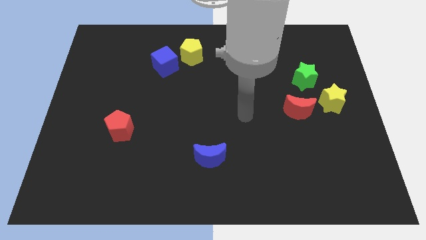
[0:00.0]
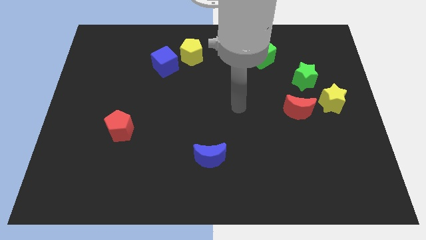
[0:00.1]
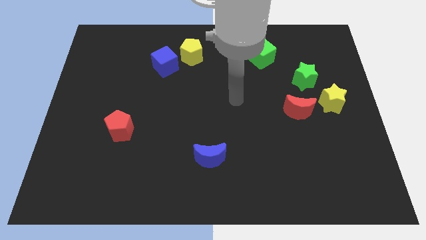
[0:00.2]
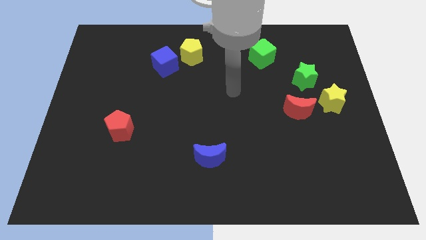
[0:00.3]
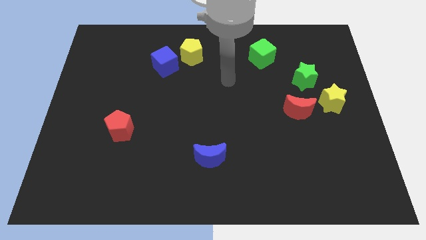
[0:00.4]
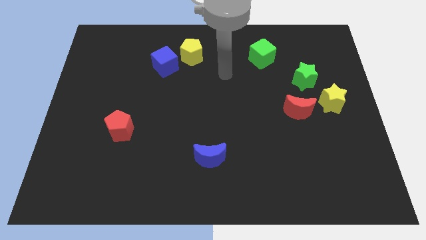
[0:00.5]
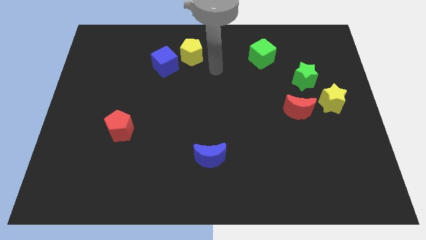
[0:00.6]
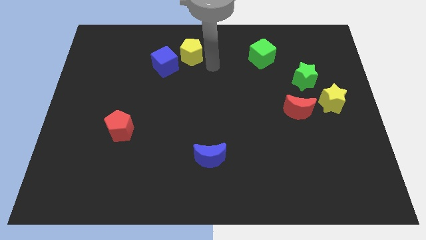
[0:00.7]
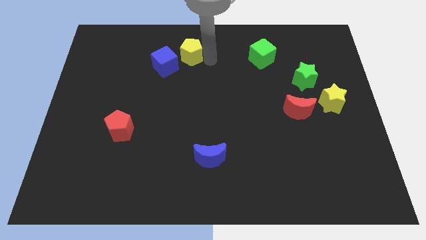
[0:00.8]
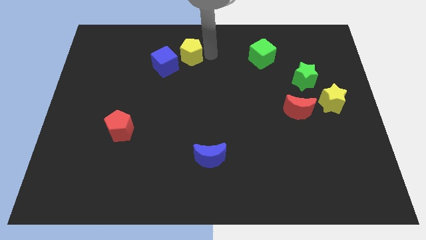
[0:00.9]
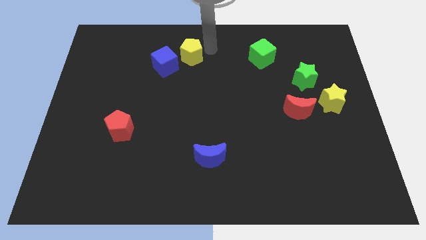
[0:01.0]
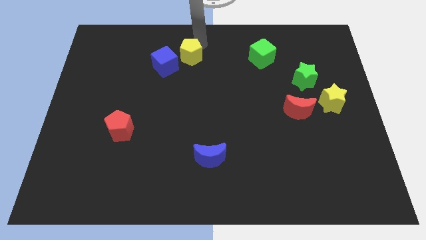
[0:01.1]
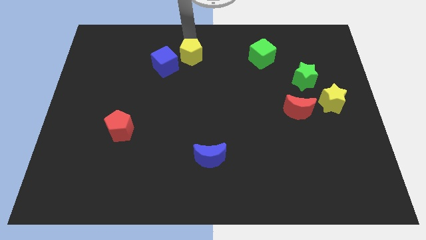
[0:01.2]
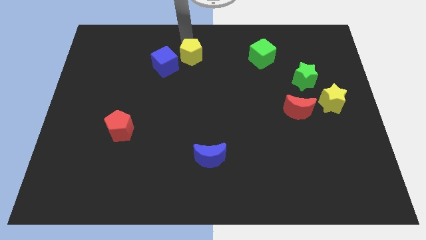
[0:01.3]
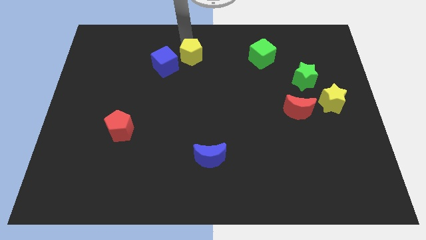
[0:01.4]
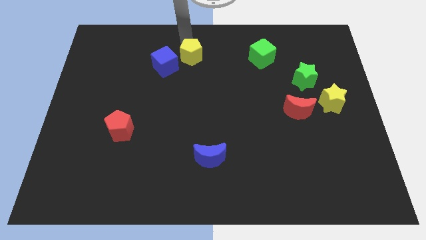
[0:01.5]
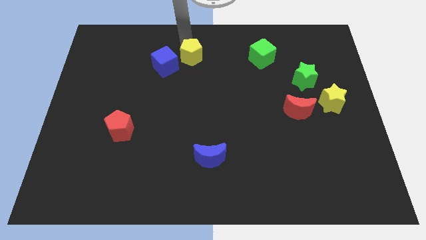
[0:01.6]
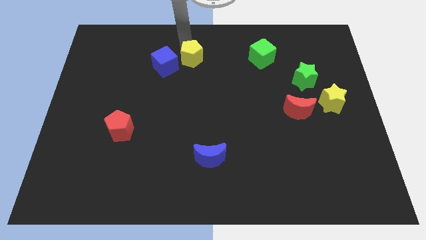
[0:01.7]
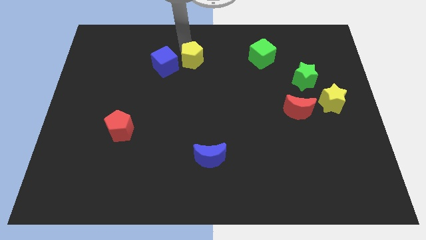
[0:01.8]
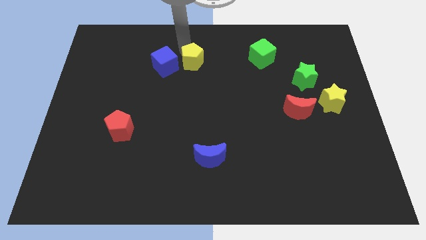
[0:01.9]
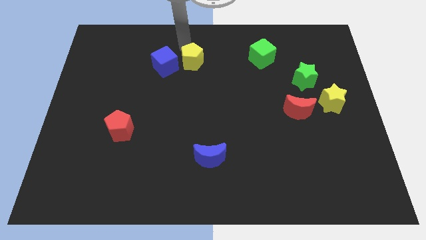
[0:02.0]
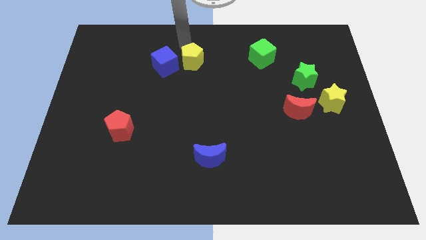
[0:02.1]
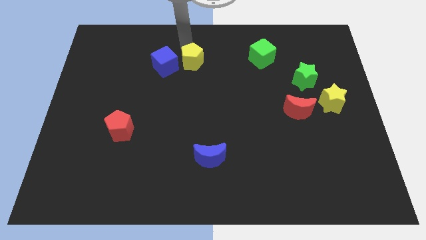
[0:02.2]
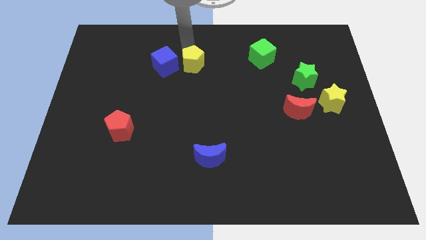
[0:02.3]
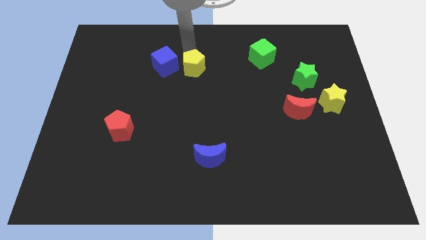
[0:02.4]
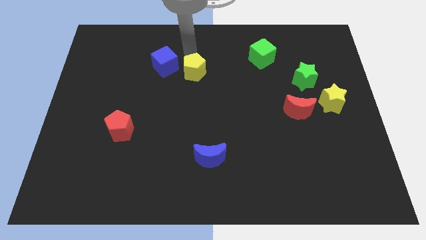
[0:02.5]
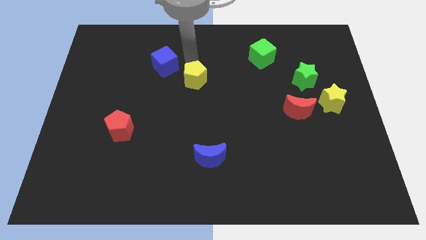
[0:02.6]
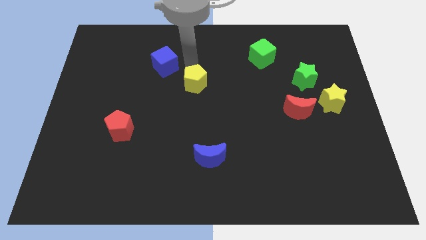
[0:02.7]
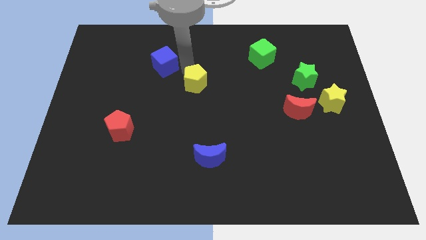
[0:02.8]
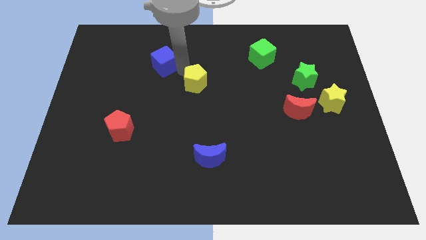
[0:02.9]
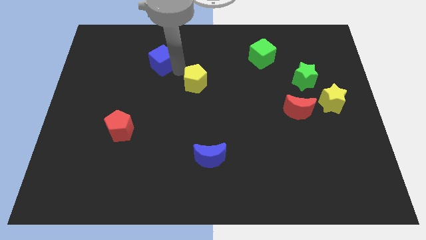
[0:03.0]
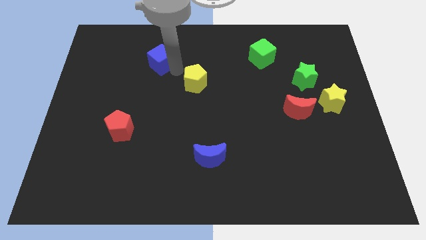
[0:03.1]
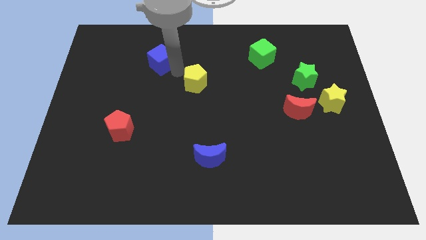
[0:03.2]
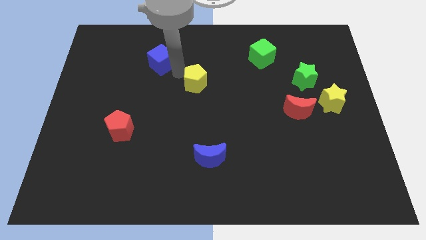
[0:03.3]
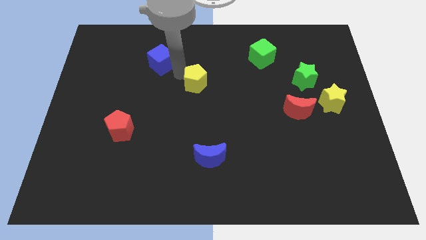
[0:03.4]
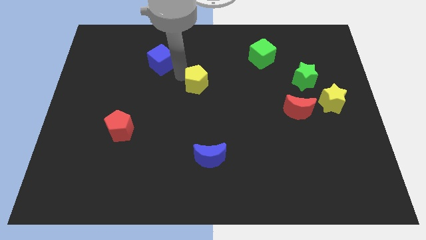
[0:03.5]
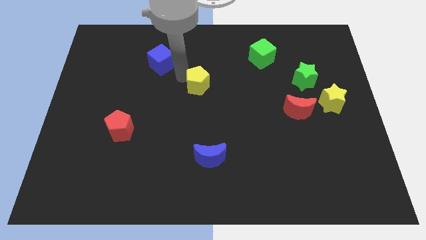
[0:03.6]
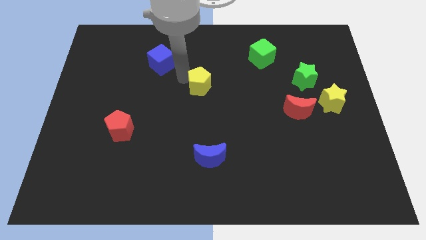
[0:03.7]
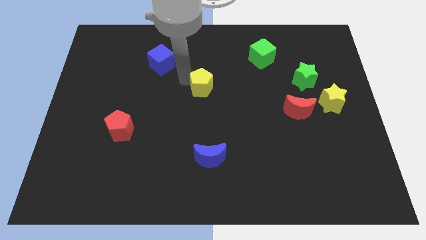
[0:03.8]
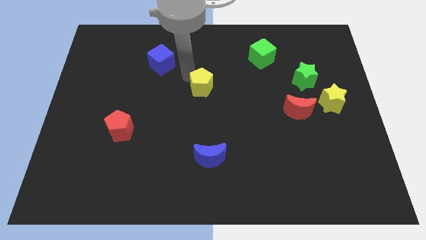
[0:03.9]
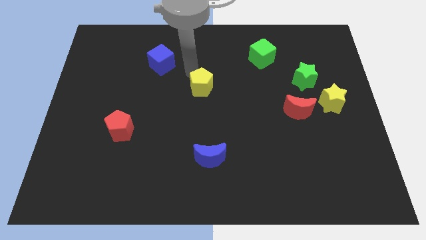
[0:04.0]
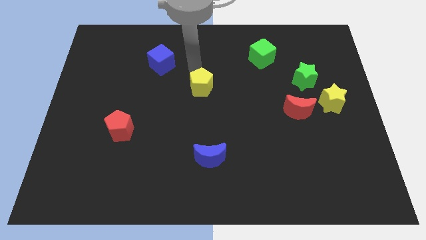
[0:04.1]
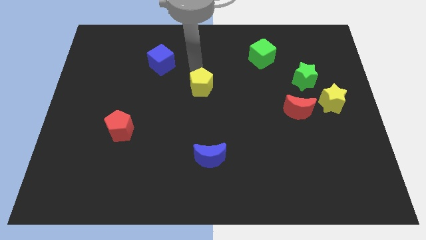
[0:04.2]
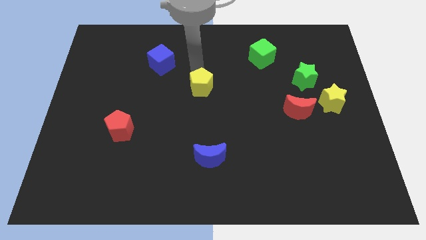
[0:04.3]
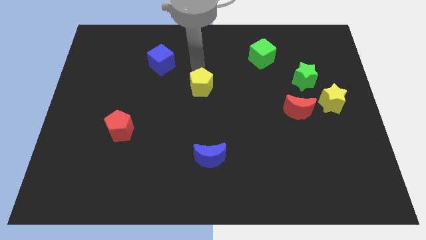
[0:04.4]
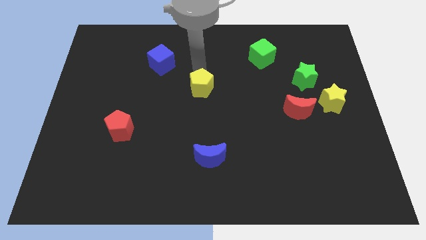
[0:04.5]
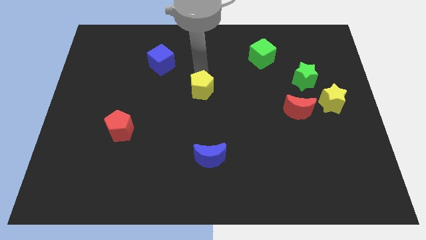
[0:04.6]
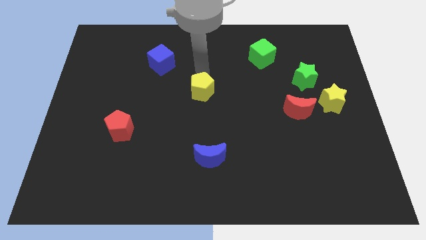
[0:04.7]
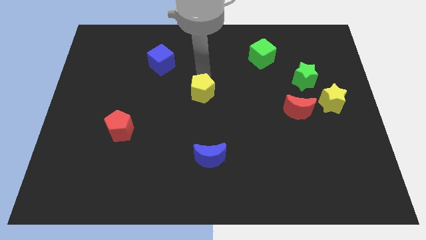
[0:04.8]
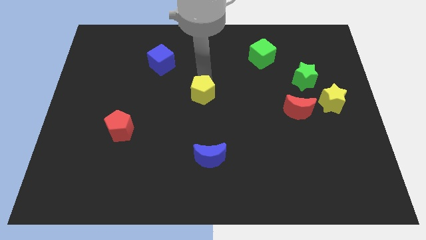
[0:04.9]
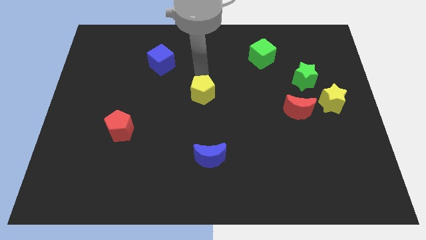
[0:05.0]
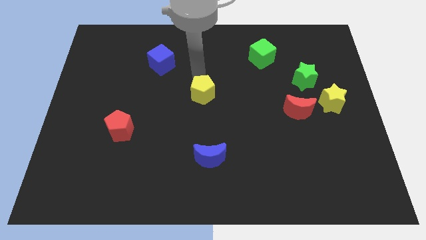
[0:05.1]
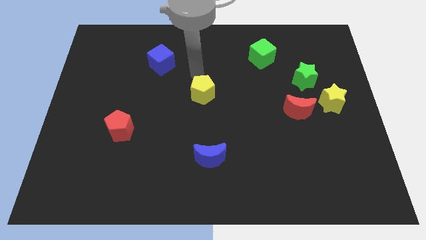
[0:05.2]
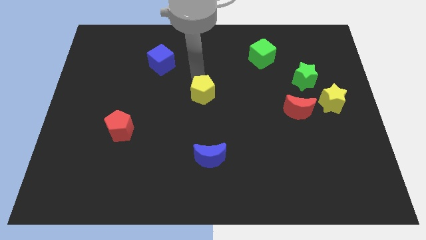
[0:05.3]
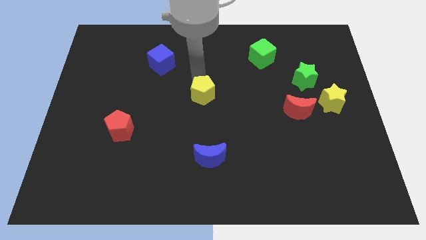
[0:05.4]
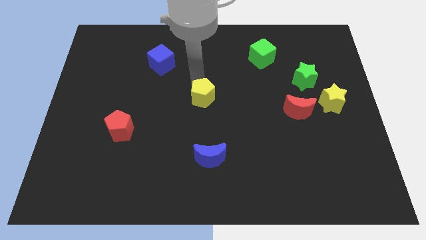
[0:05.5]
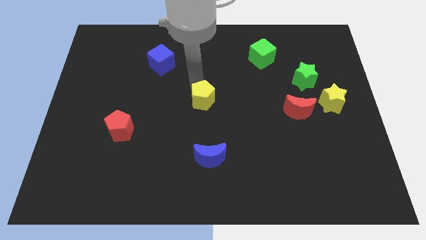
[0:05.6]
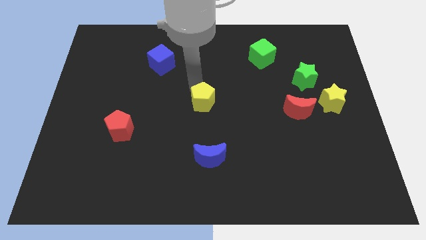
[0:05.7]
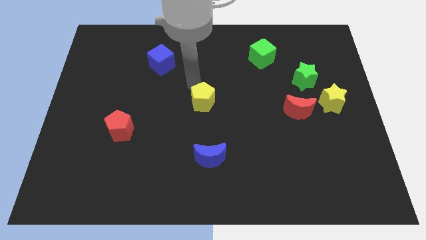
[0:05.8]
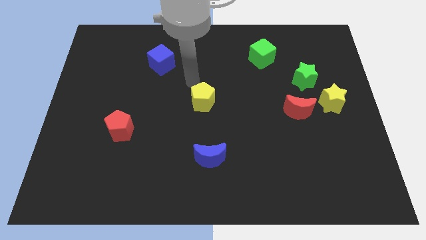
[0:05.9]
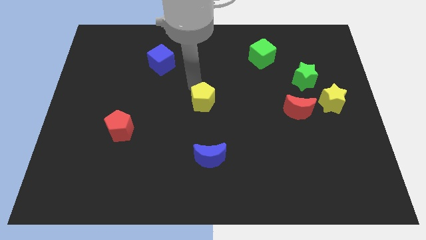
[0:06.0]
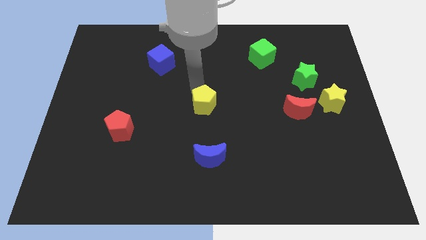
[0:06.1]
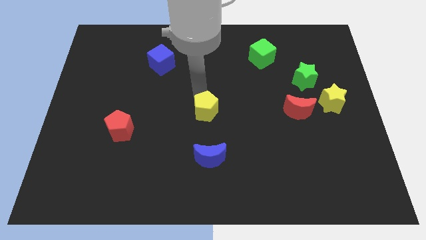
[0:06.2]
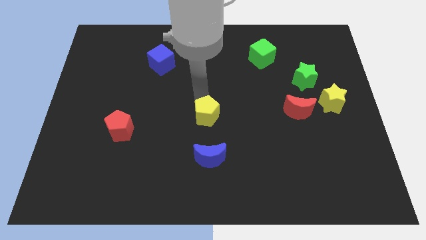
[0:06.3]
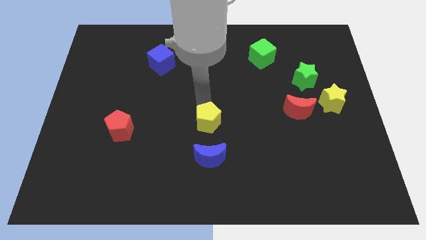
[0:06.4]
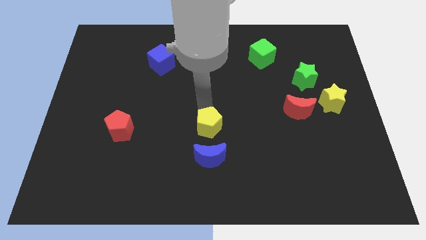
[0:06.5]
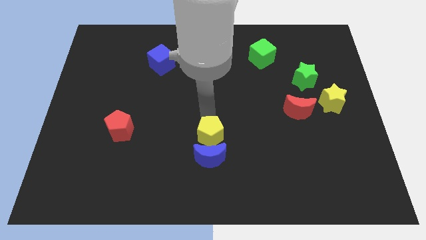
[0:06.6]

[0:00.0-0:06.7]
put the yellow pentagon to the blue moon

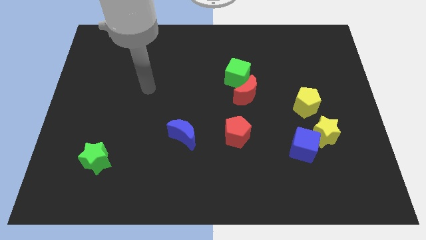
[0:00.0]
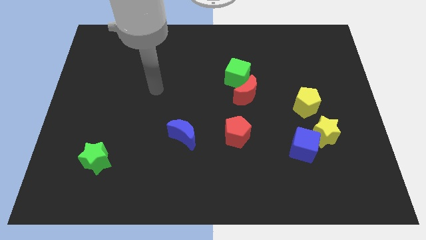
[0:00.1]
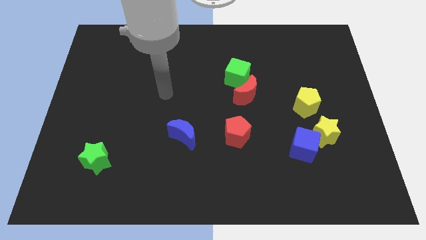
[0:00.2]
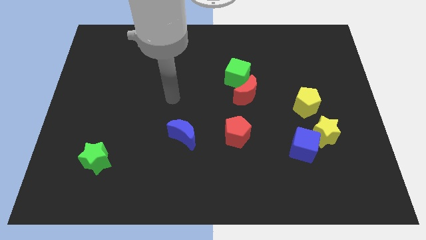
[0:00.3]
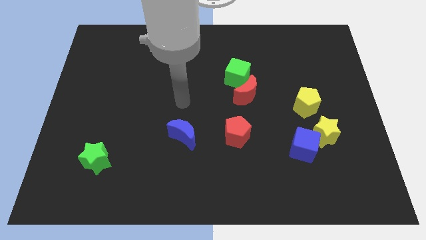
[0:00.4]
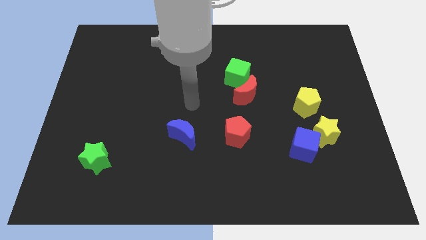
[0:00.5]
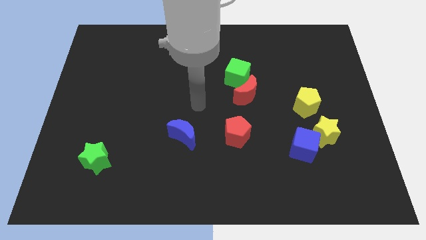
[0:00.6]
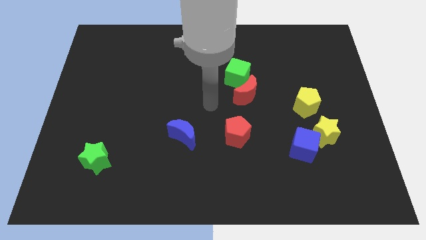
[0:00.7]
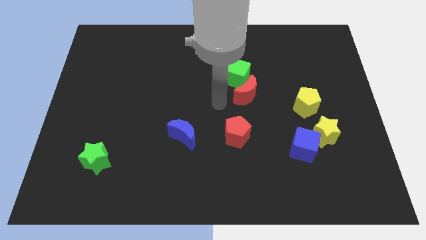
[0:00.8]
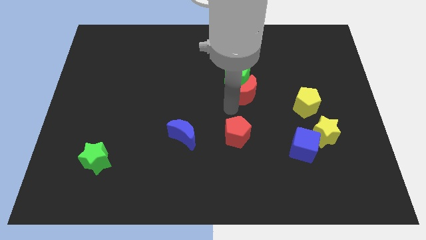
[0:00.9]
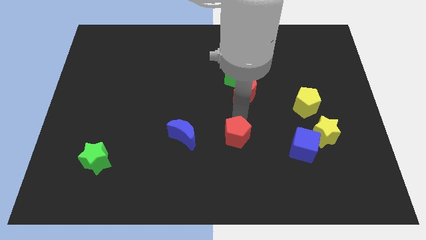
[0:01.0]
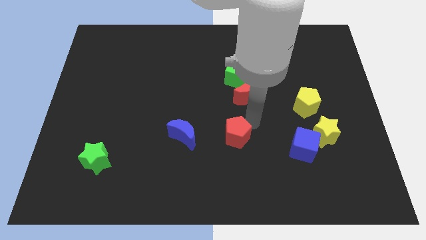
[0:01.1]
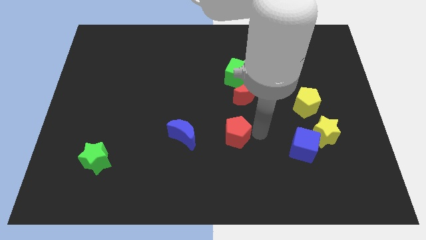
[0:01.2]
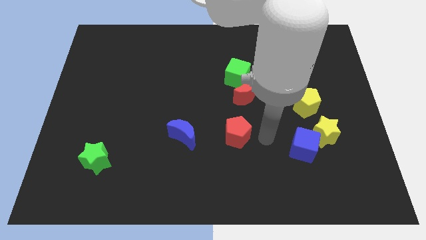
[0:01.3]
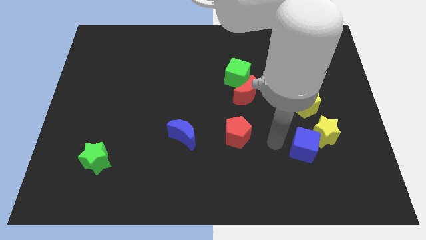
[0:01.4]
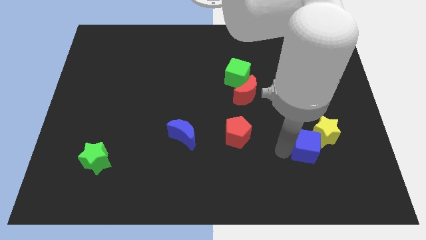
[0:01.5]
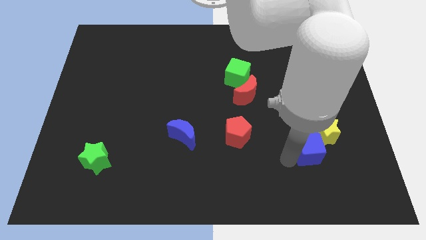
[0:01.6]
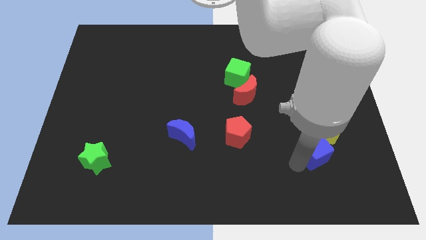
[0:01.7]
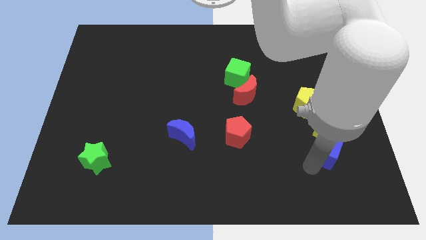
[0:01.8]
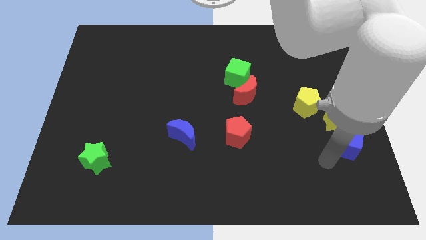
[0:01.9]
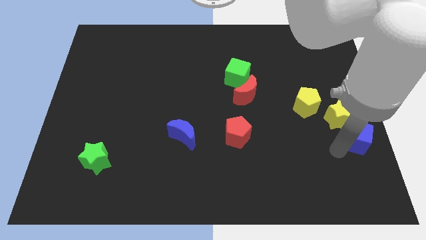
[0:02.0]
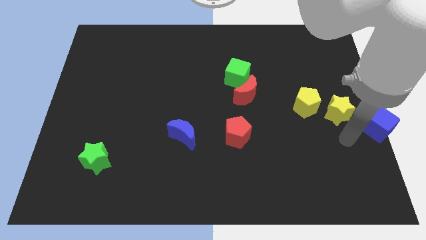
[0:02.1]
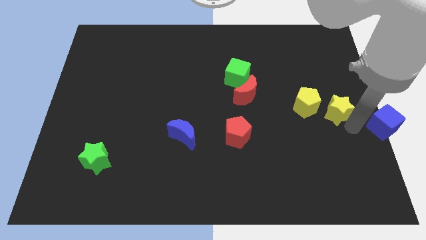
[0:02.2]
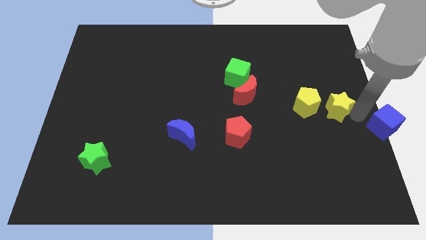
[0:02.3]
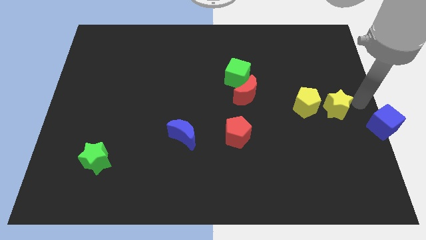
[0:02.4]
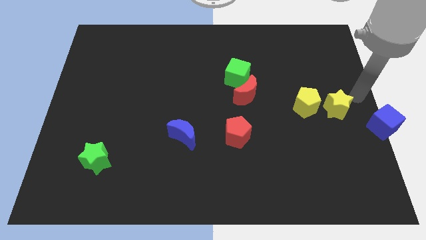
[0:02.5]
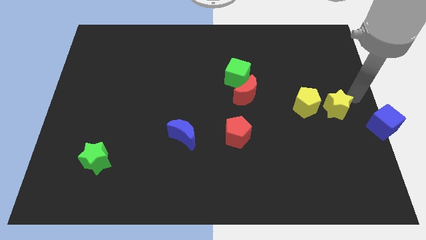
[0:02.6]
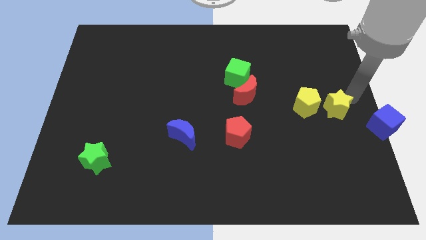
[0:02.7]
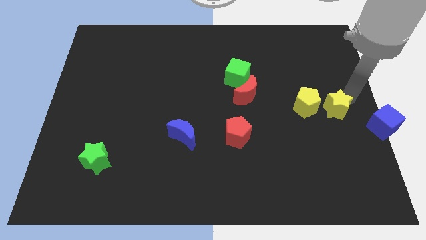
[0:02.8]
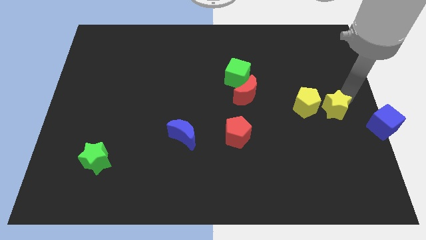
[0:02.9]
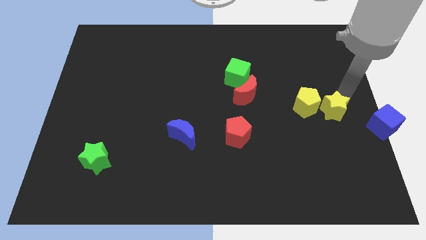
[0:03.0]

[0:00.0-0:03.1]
put the yellow star close to the yellow pentagon
